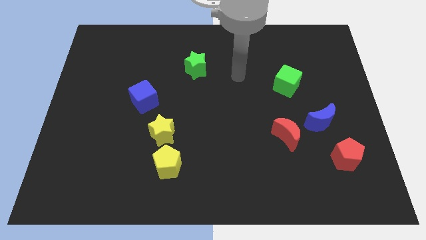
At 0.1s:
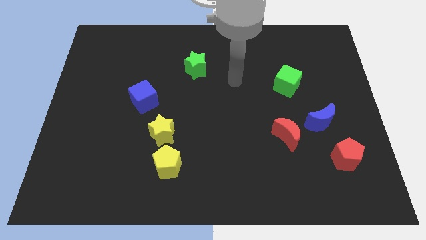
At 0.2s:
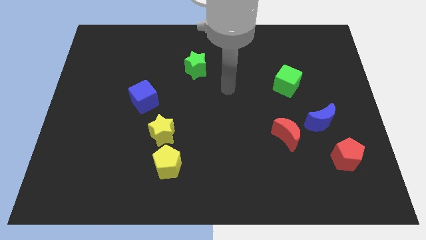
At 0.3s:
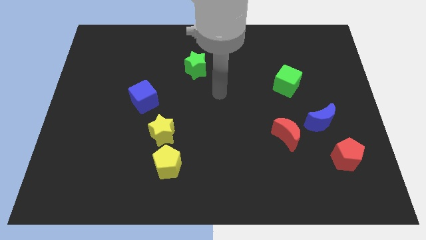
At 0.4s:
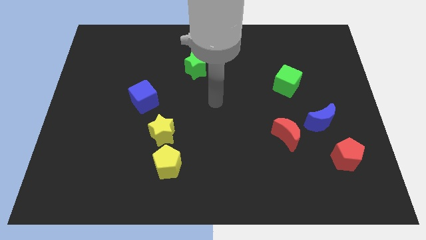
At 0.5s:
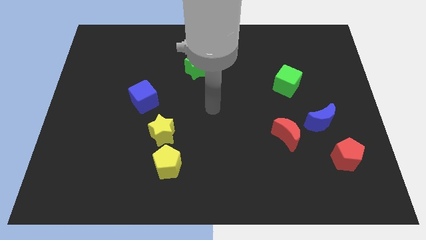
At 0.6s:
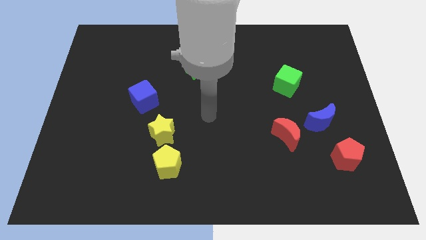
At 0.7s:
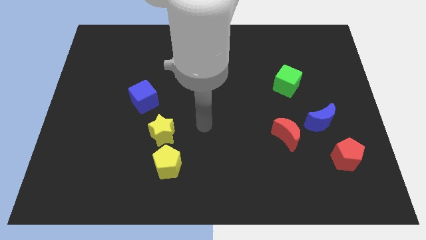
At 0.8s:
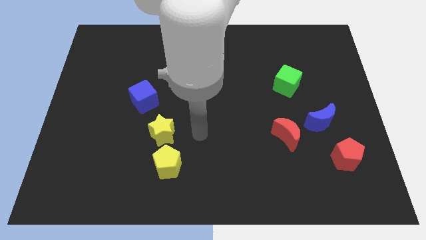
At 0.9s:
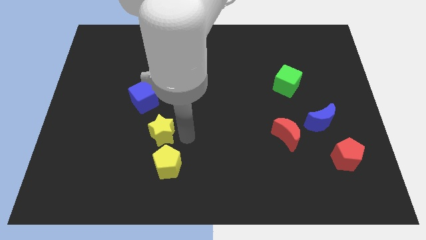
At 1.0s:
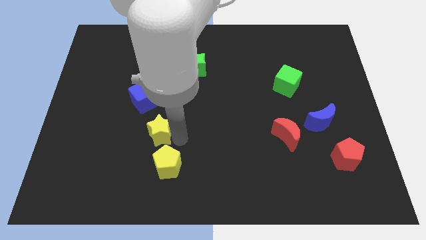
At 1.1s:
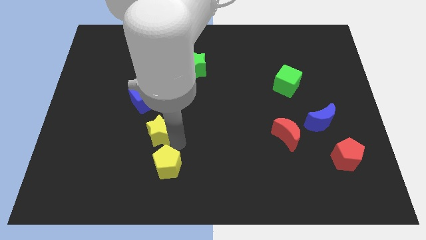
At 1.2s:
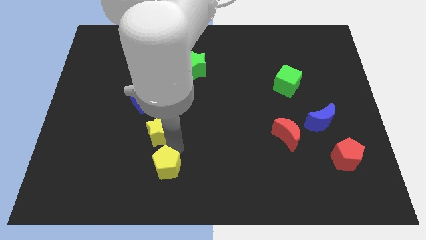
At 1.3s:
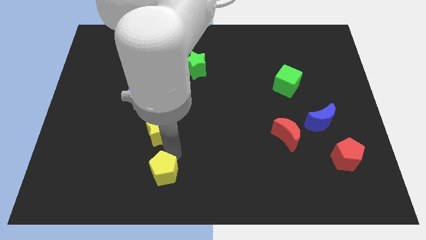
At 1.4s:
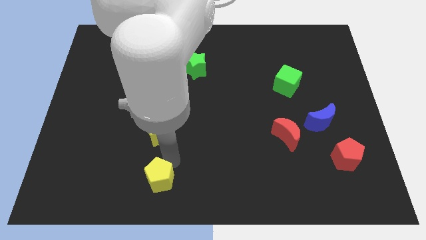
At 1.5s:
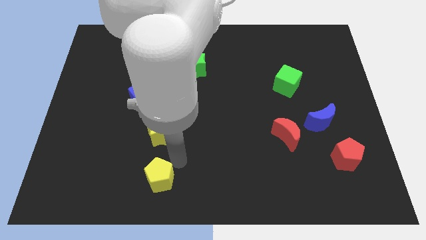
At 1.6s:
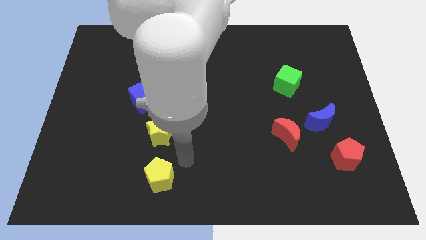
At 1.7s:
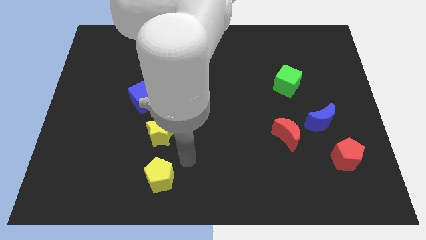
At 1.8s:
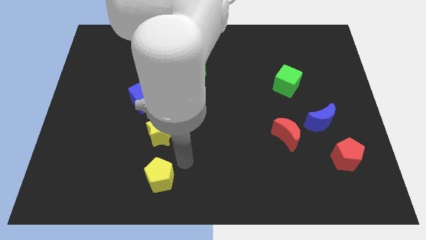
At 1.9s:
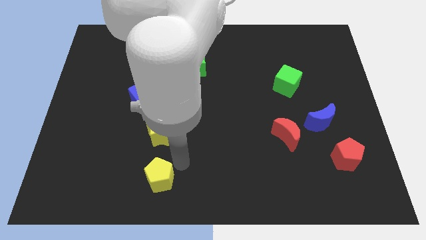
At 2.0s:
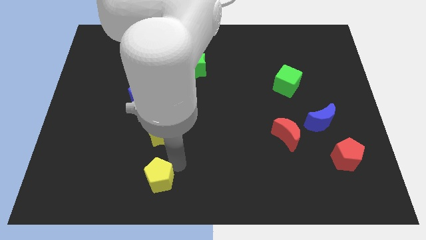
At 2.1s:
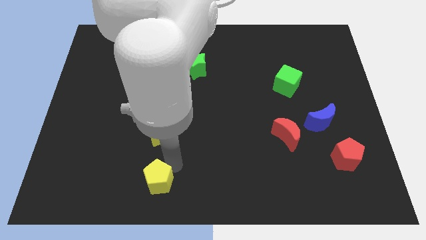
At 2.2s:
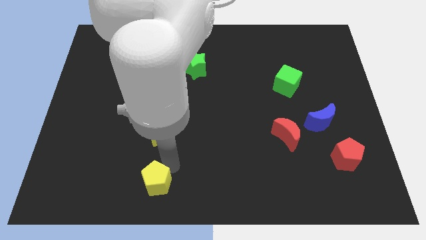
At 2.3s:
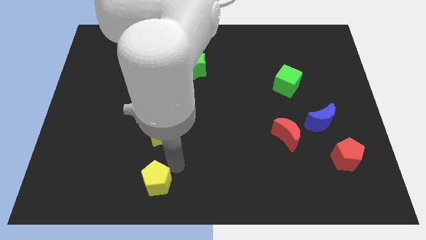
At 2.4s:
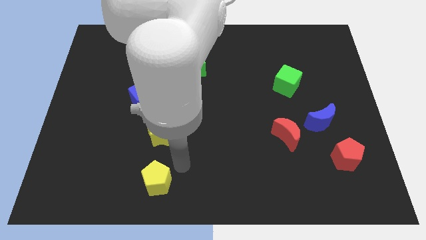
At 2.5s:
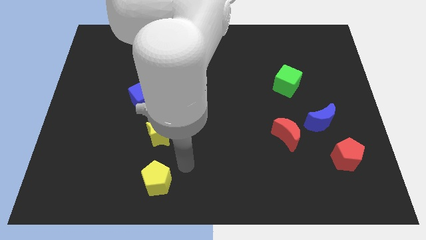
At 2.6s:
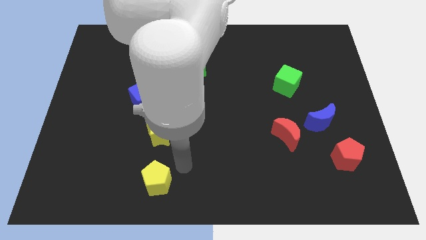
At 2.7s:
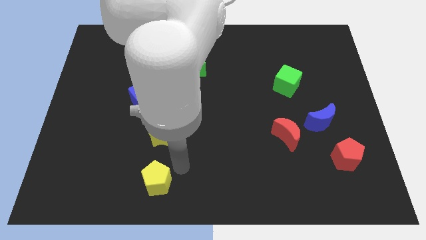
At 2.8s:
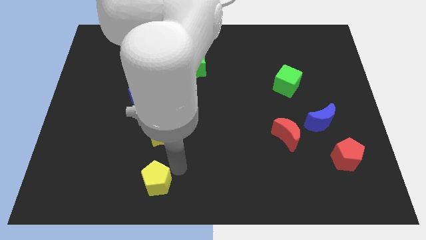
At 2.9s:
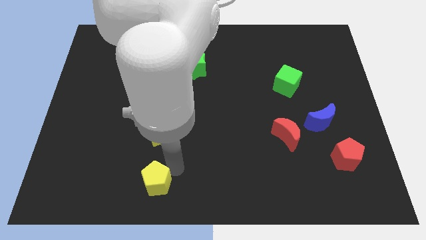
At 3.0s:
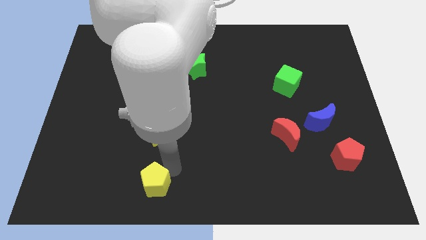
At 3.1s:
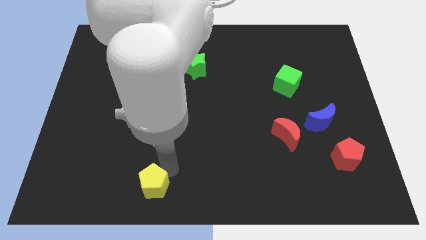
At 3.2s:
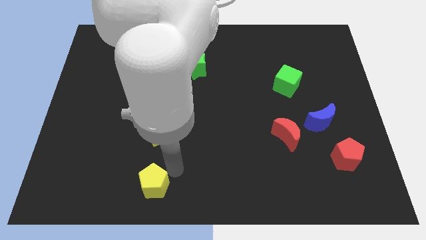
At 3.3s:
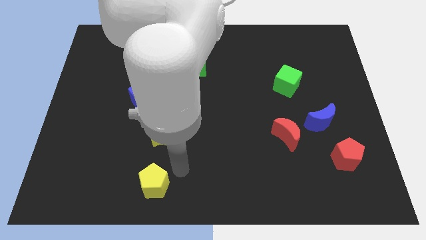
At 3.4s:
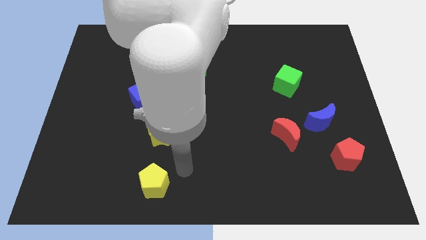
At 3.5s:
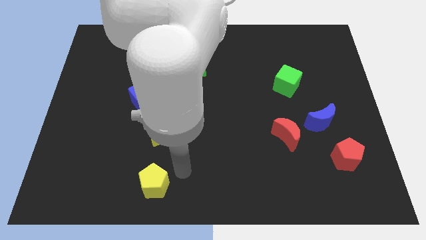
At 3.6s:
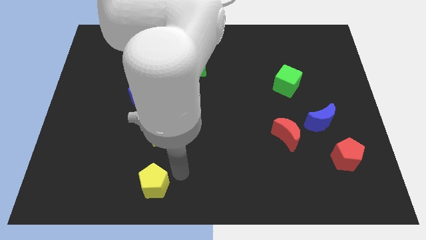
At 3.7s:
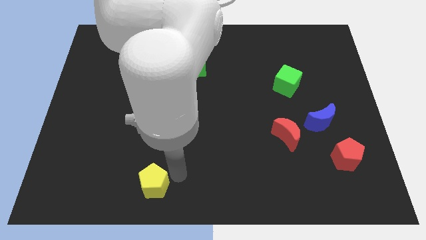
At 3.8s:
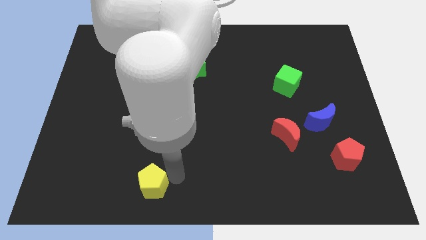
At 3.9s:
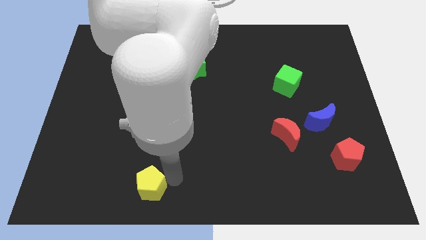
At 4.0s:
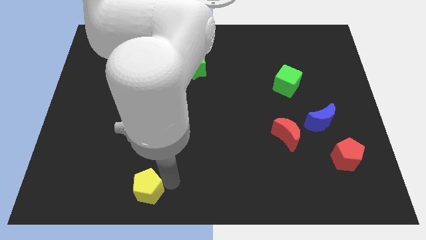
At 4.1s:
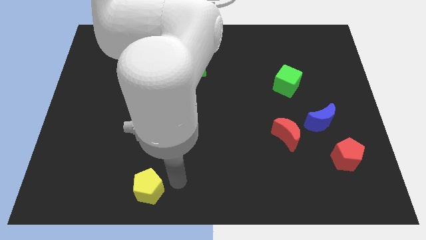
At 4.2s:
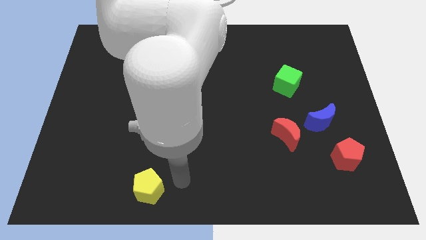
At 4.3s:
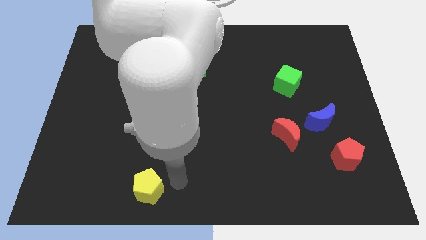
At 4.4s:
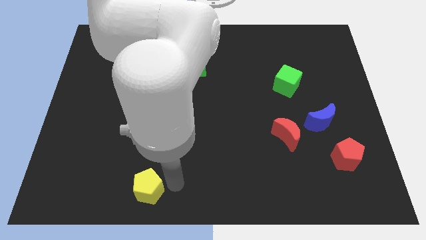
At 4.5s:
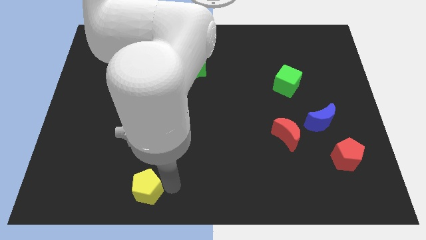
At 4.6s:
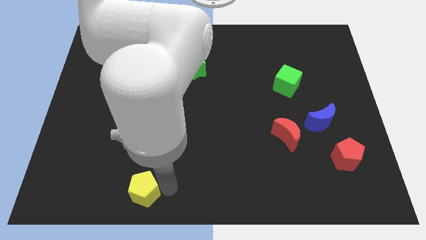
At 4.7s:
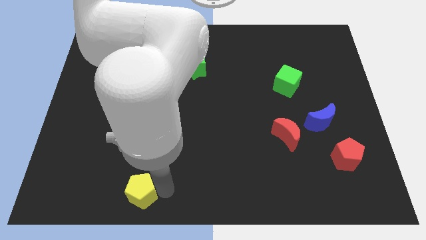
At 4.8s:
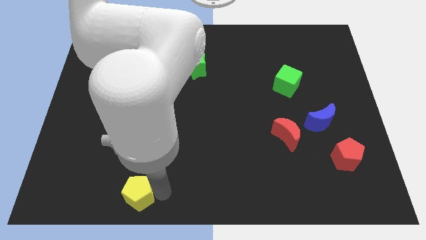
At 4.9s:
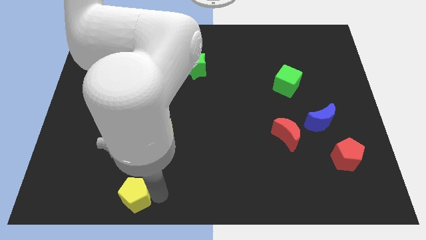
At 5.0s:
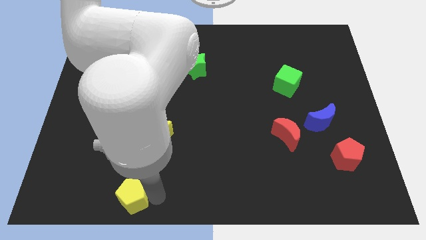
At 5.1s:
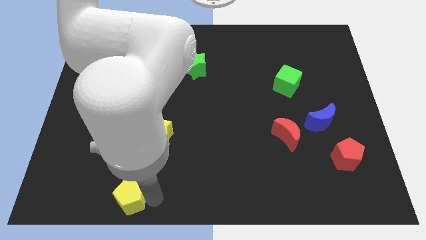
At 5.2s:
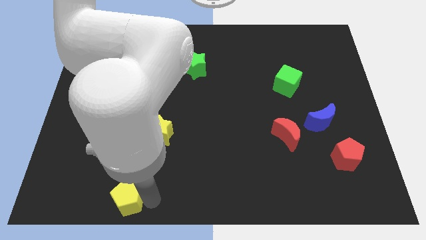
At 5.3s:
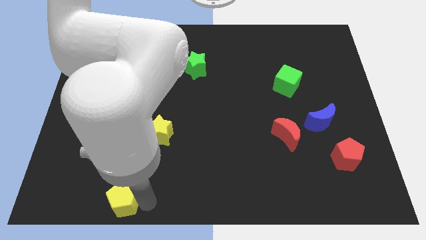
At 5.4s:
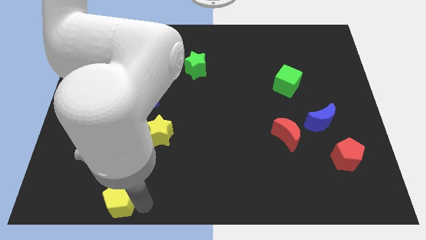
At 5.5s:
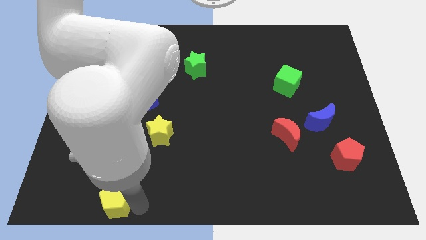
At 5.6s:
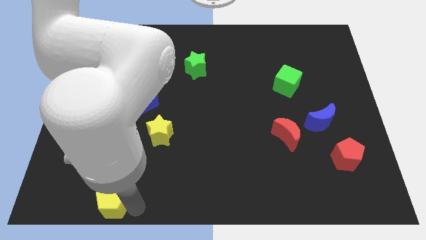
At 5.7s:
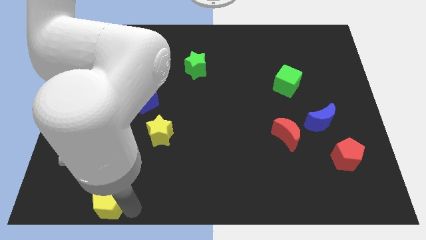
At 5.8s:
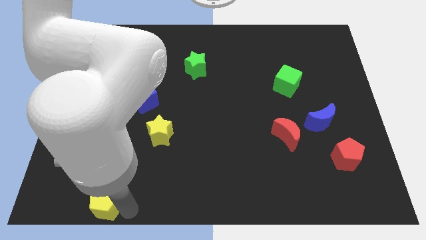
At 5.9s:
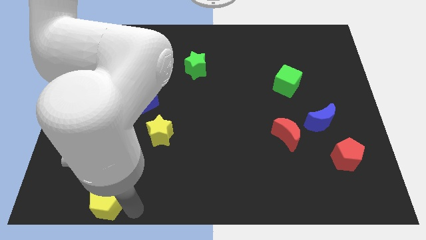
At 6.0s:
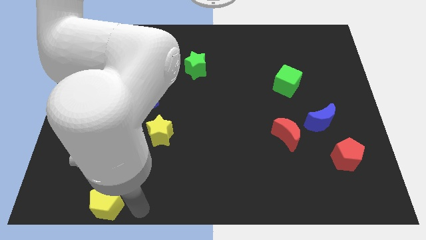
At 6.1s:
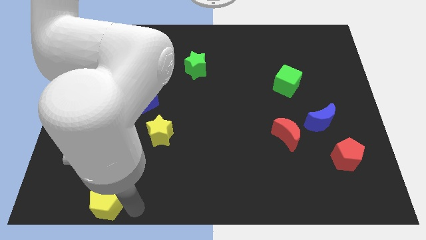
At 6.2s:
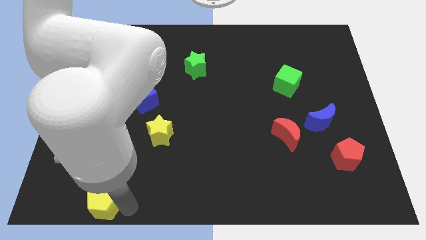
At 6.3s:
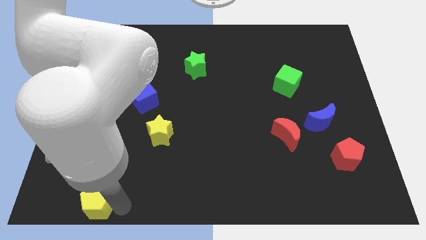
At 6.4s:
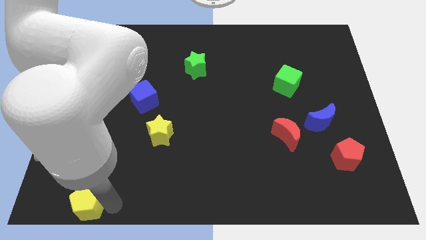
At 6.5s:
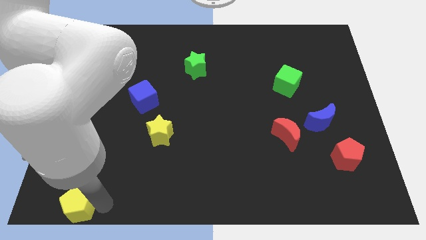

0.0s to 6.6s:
push the yellow pentagon to the bottom left
